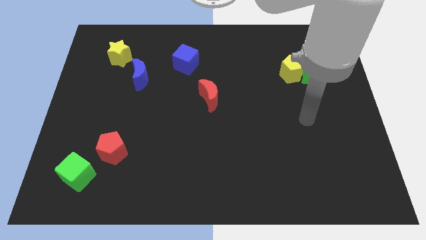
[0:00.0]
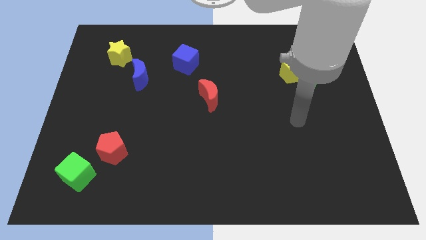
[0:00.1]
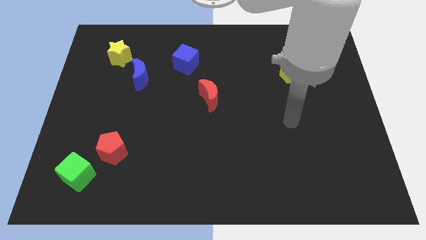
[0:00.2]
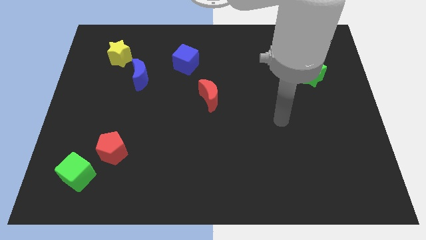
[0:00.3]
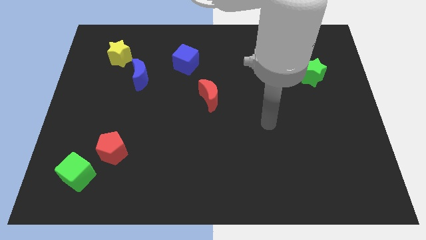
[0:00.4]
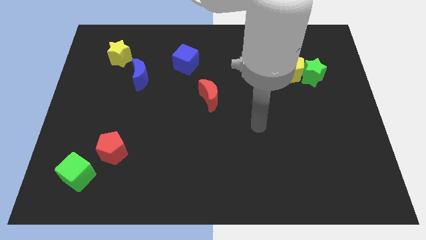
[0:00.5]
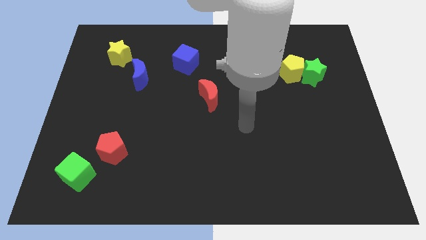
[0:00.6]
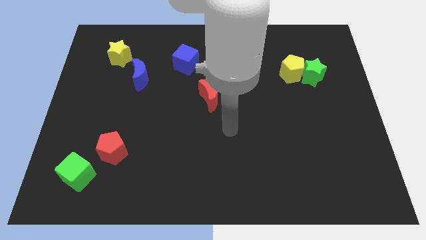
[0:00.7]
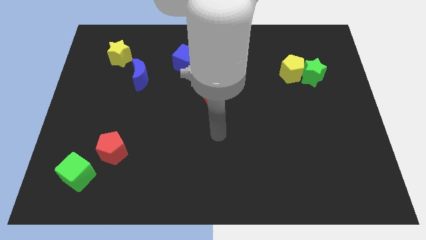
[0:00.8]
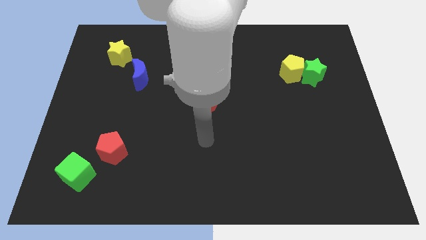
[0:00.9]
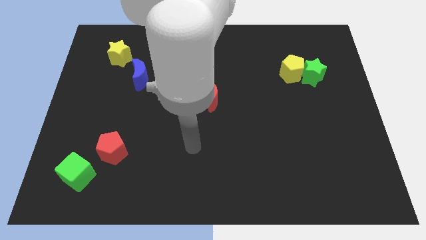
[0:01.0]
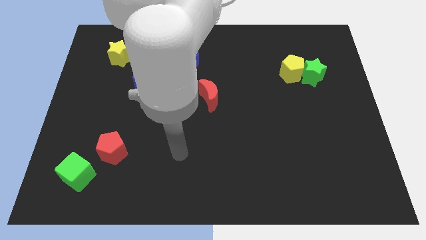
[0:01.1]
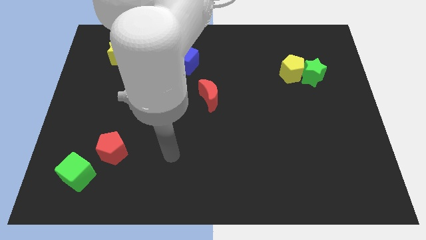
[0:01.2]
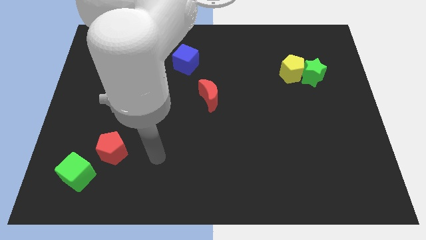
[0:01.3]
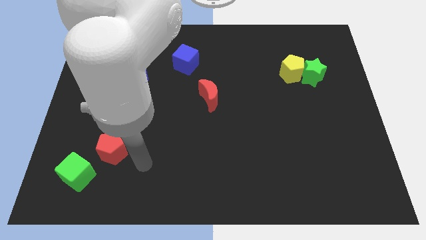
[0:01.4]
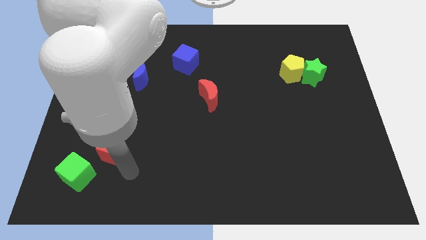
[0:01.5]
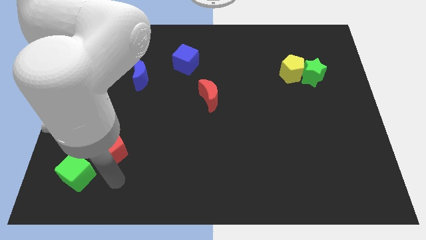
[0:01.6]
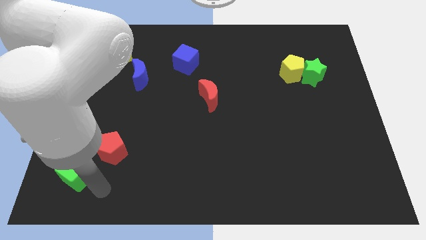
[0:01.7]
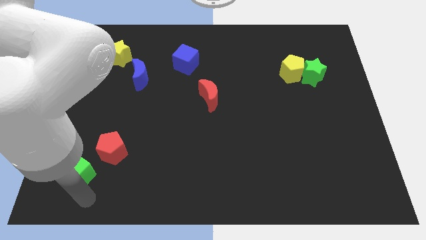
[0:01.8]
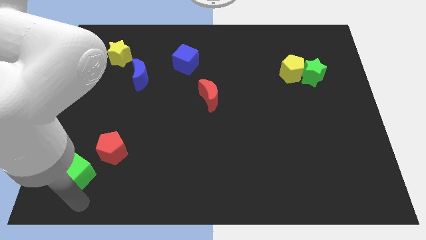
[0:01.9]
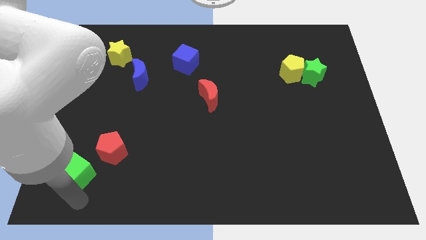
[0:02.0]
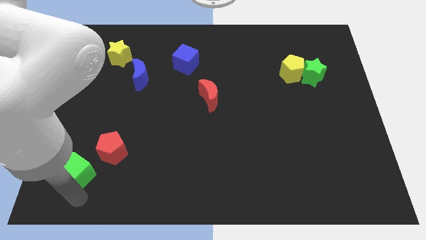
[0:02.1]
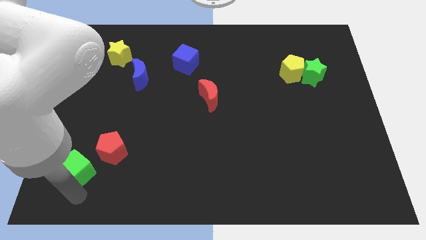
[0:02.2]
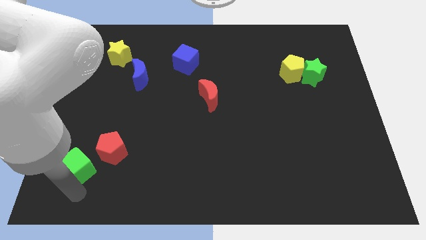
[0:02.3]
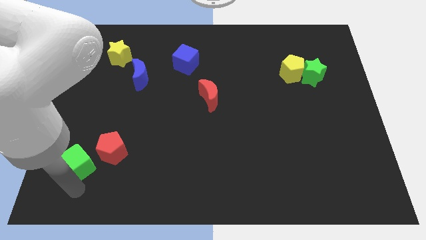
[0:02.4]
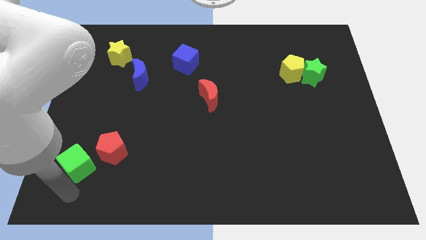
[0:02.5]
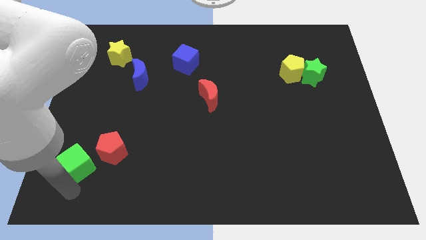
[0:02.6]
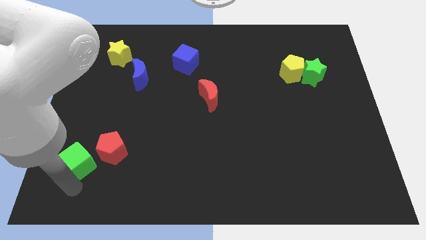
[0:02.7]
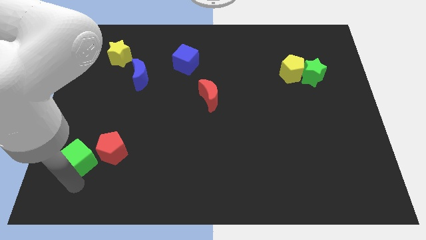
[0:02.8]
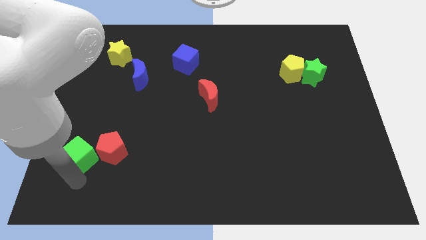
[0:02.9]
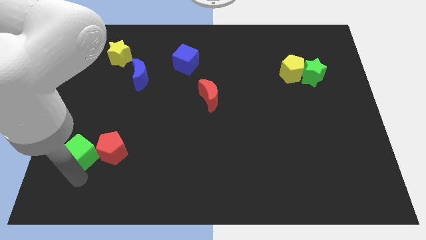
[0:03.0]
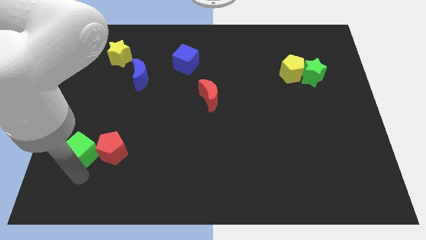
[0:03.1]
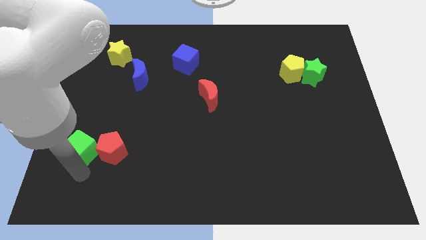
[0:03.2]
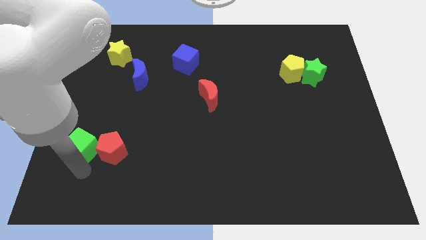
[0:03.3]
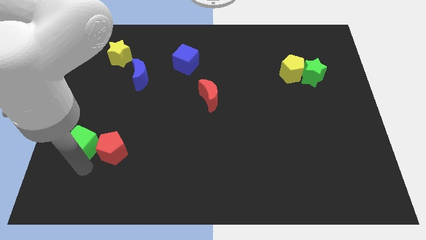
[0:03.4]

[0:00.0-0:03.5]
slide the green cube up a little

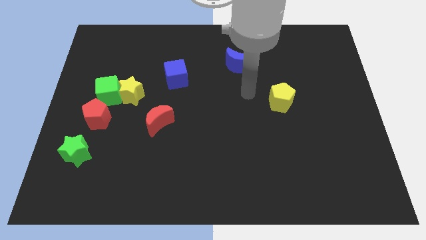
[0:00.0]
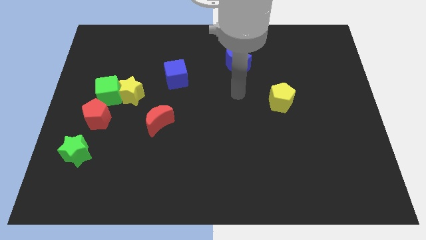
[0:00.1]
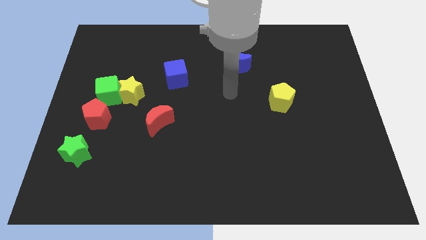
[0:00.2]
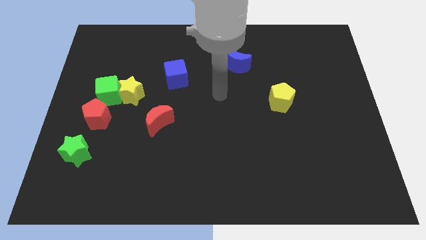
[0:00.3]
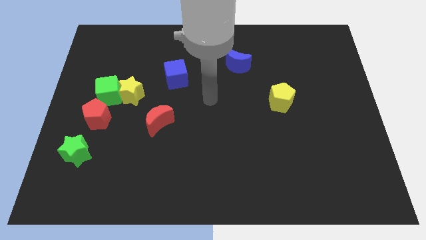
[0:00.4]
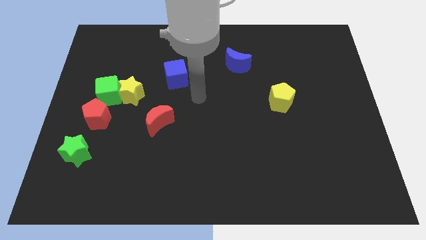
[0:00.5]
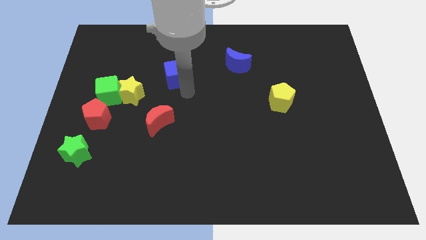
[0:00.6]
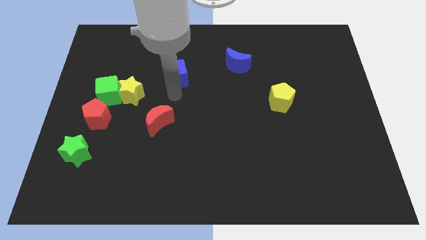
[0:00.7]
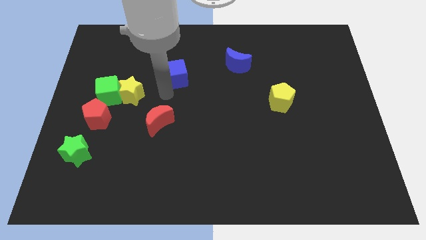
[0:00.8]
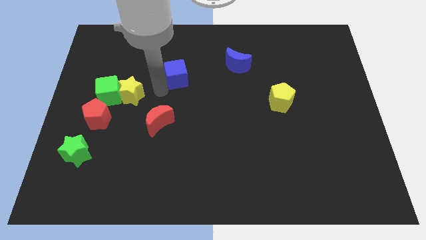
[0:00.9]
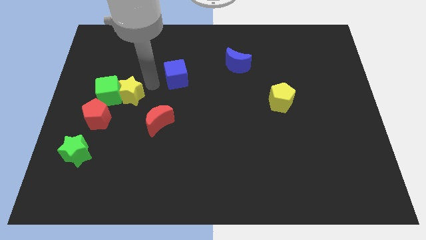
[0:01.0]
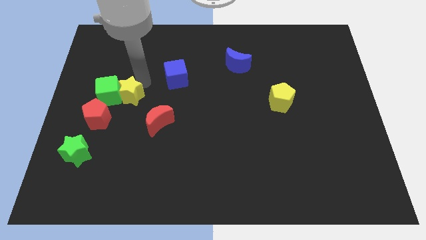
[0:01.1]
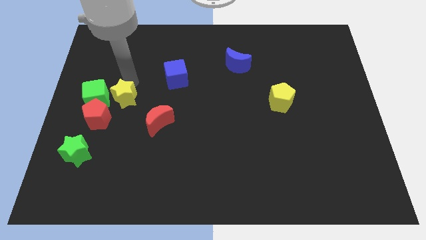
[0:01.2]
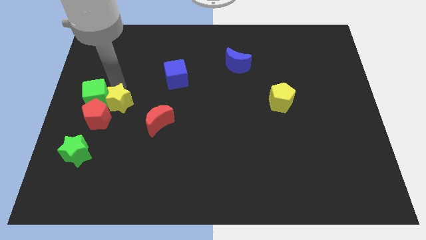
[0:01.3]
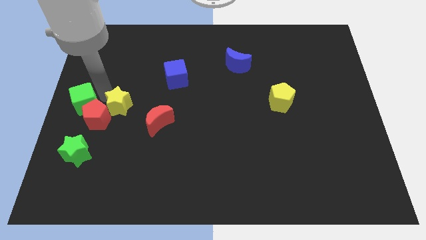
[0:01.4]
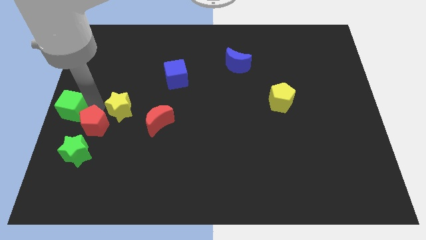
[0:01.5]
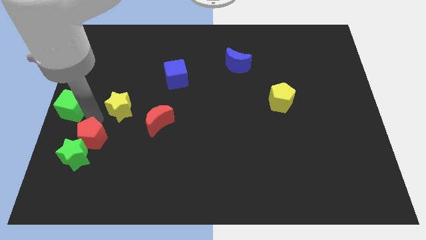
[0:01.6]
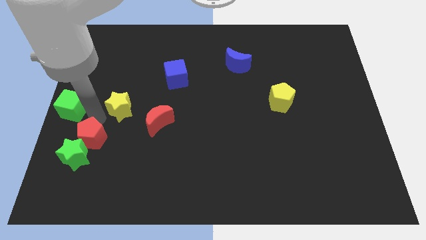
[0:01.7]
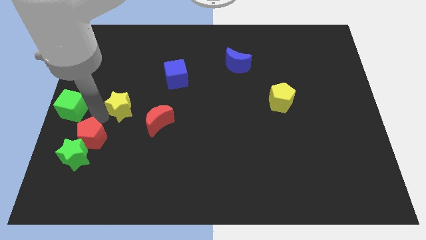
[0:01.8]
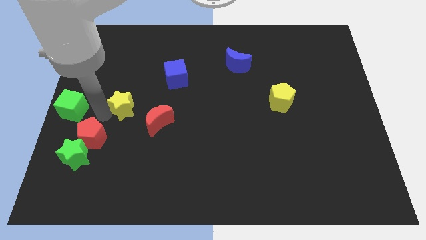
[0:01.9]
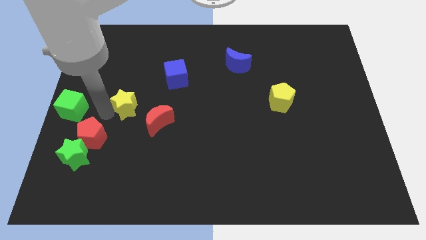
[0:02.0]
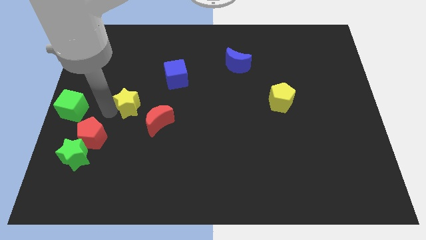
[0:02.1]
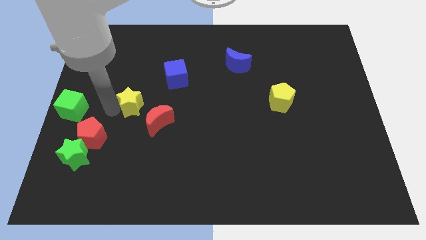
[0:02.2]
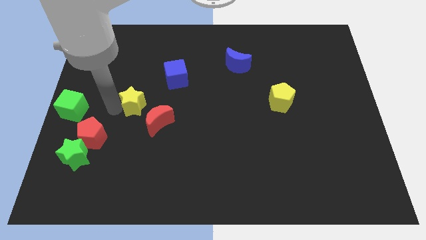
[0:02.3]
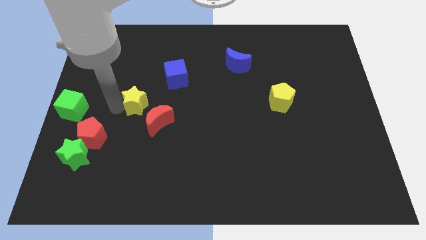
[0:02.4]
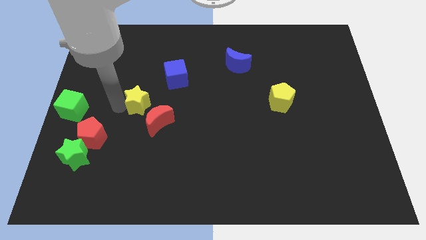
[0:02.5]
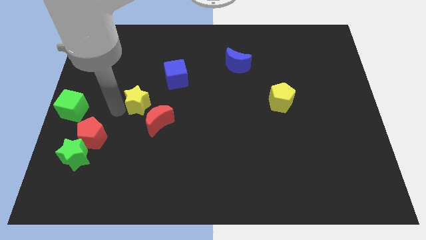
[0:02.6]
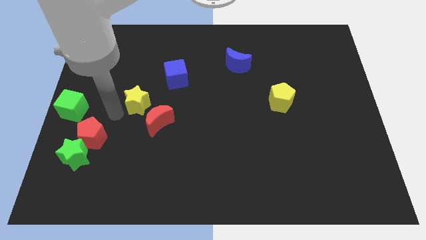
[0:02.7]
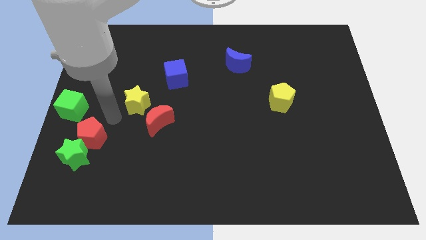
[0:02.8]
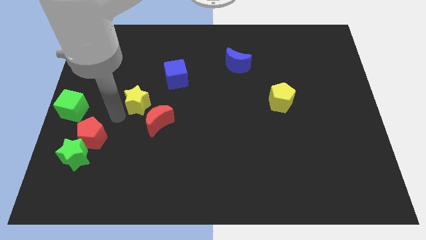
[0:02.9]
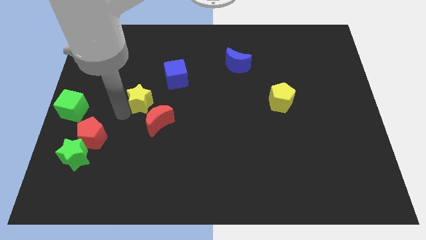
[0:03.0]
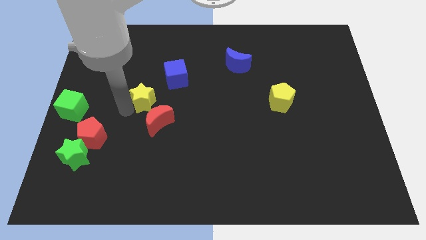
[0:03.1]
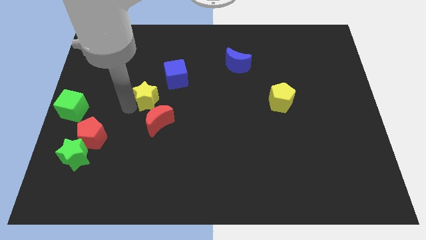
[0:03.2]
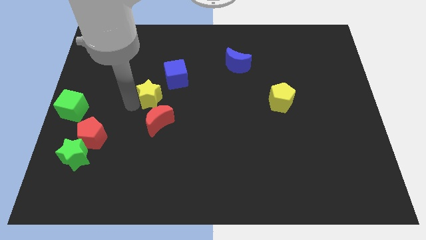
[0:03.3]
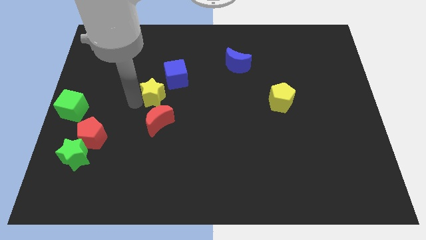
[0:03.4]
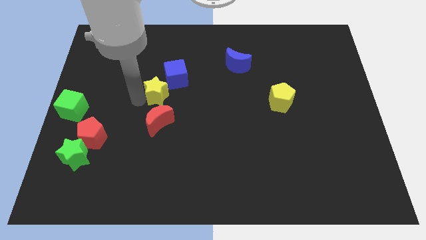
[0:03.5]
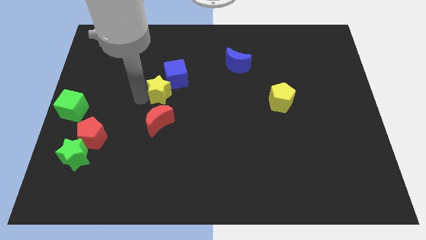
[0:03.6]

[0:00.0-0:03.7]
slide the yellow star a little to the right

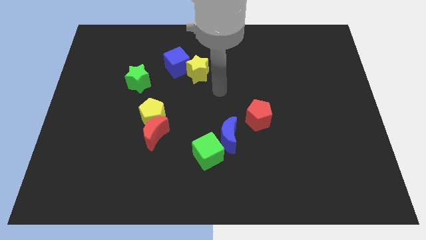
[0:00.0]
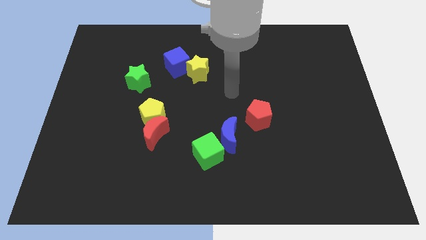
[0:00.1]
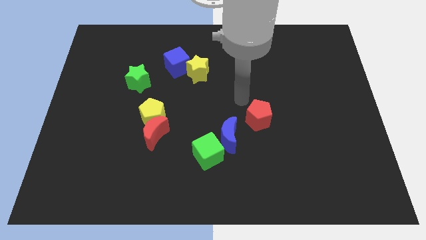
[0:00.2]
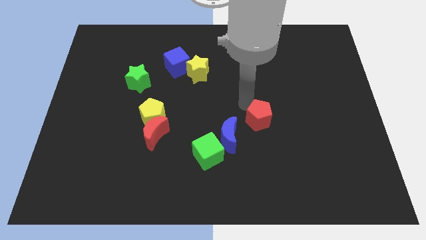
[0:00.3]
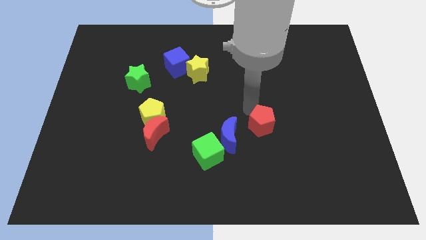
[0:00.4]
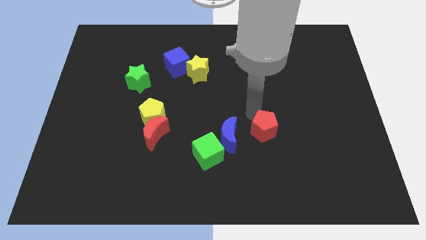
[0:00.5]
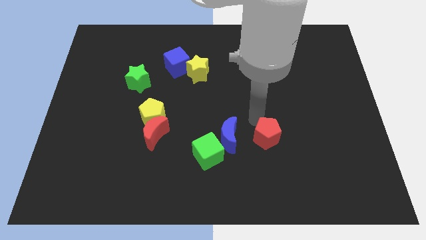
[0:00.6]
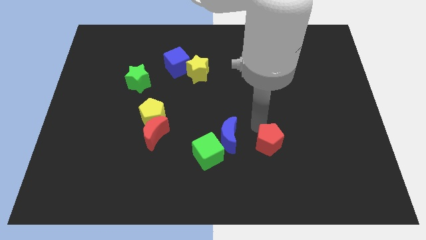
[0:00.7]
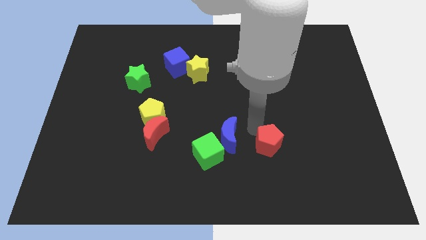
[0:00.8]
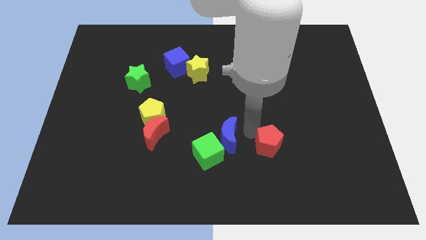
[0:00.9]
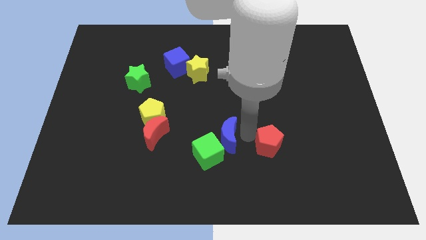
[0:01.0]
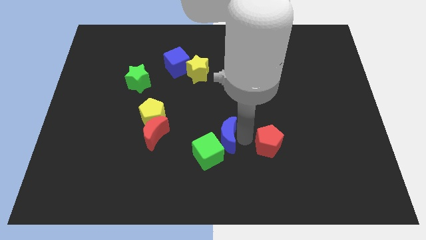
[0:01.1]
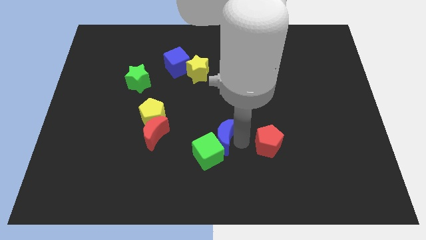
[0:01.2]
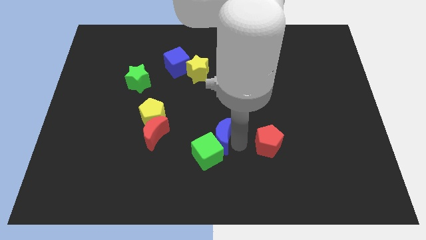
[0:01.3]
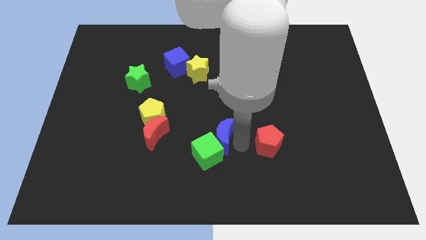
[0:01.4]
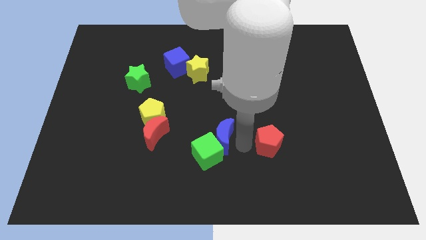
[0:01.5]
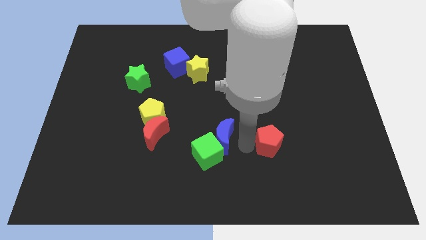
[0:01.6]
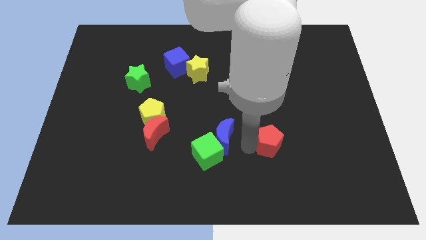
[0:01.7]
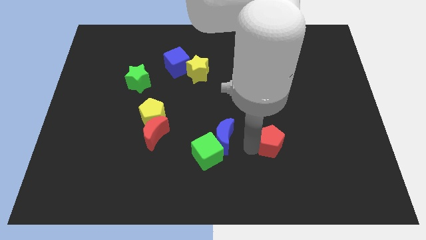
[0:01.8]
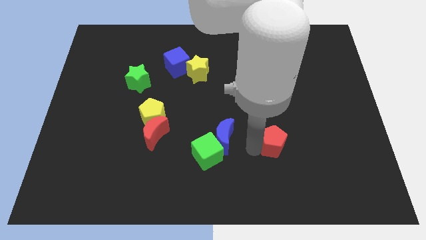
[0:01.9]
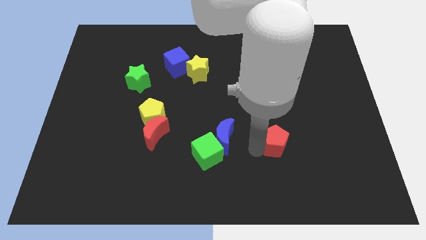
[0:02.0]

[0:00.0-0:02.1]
push the red pentagon down and to the right diagonally somewhat
